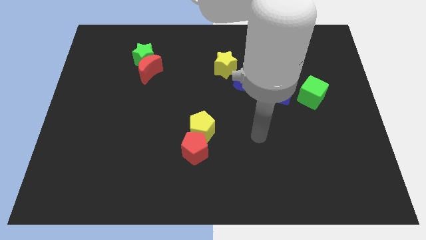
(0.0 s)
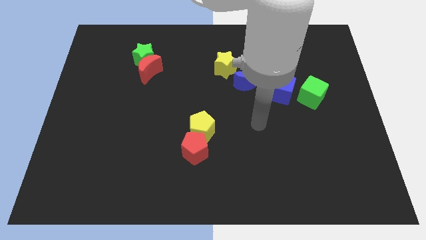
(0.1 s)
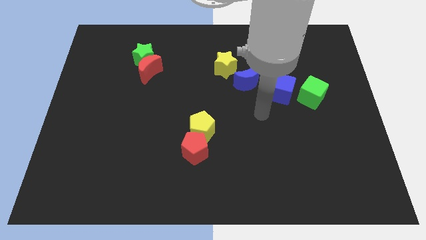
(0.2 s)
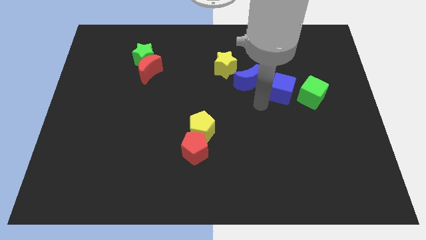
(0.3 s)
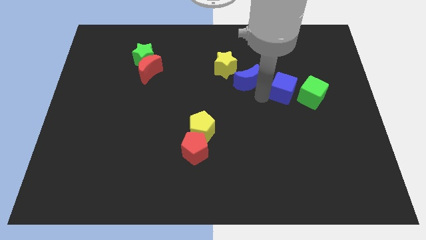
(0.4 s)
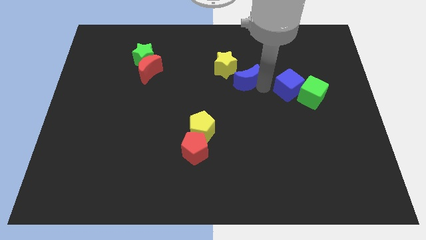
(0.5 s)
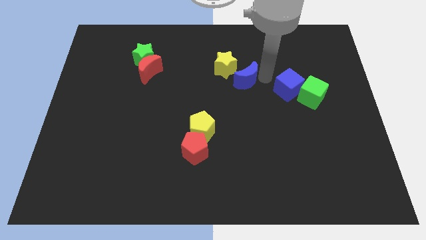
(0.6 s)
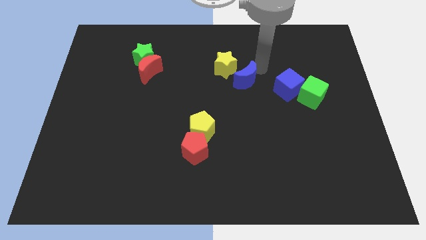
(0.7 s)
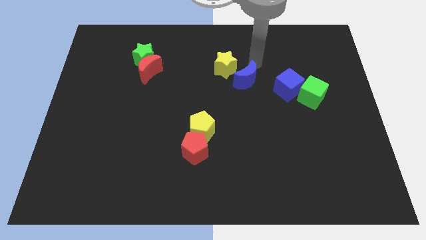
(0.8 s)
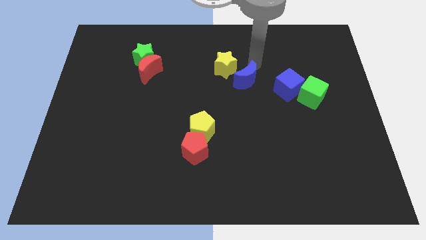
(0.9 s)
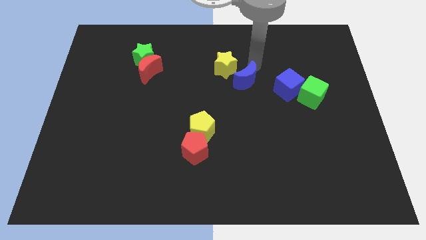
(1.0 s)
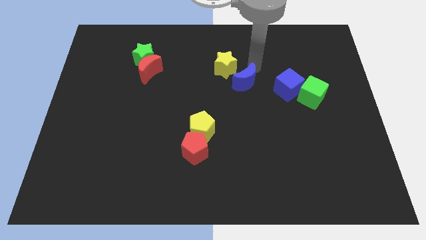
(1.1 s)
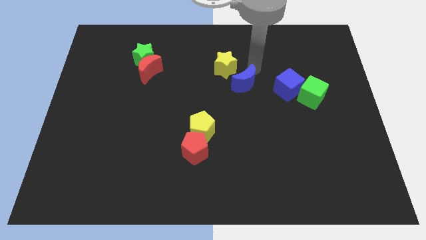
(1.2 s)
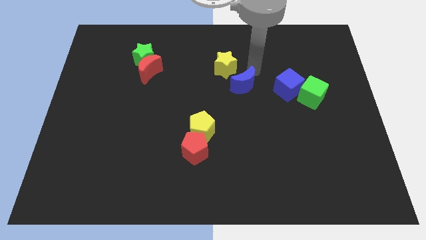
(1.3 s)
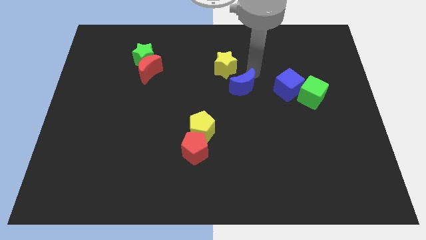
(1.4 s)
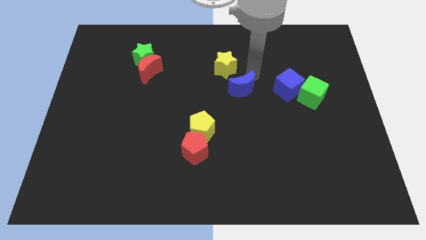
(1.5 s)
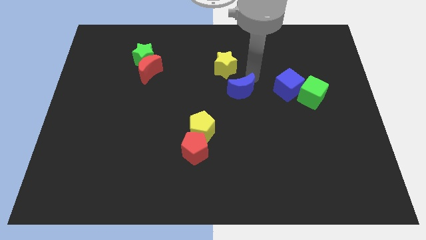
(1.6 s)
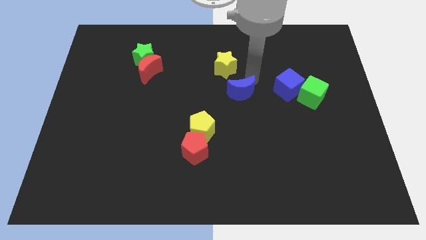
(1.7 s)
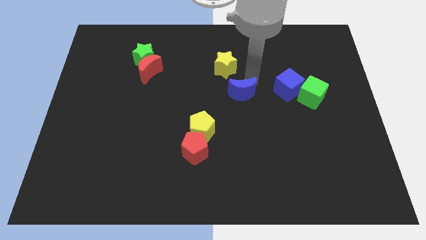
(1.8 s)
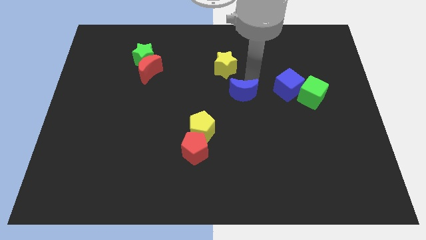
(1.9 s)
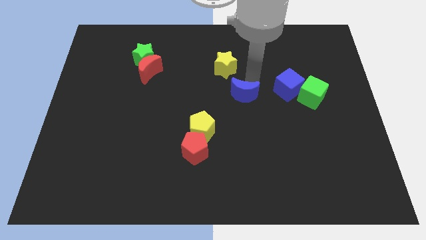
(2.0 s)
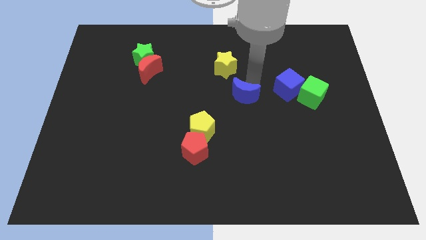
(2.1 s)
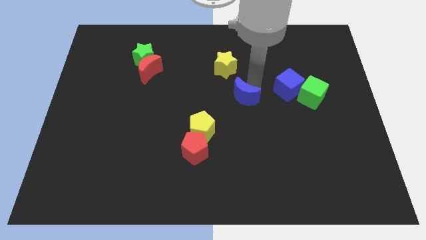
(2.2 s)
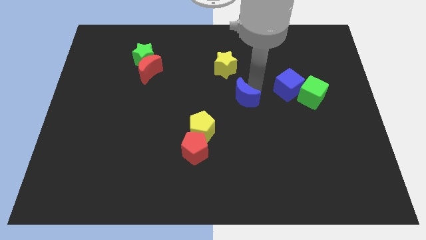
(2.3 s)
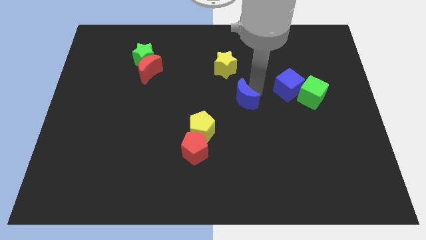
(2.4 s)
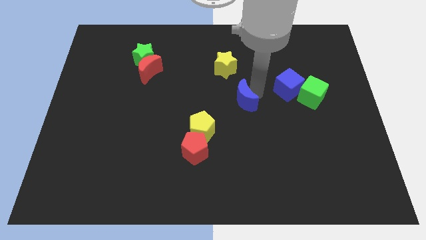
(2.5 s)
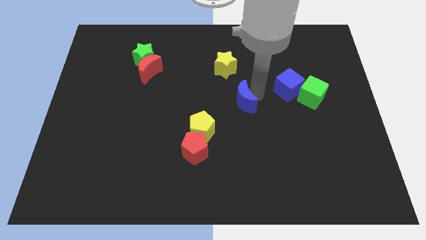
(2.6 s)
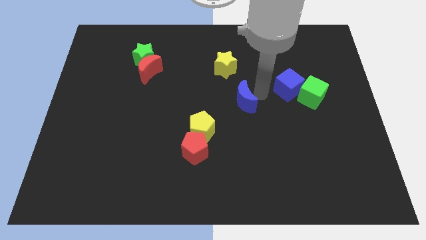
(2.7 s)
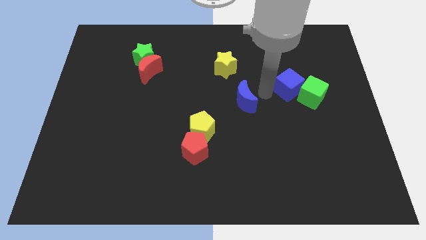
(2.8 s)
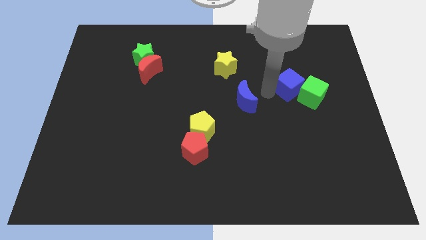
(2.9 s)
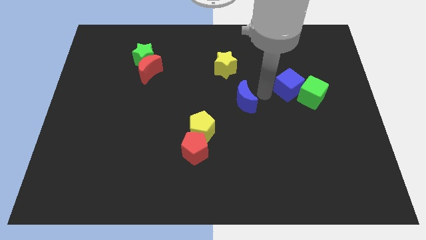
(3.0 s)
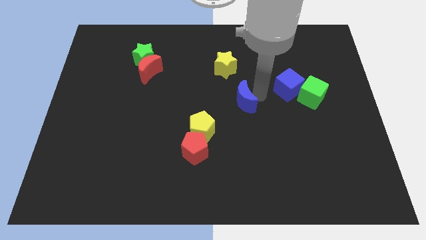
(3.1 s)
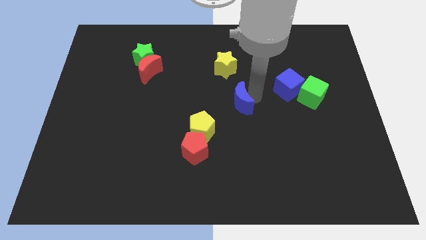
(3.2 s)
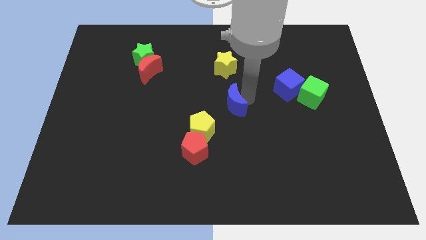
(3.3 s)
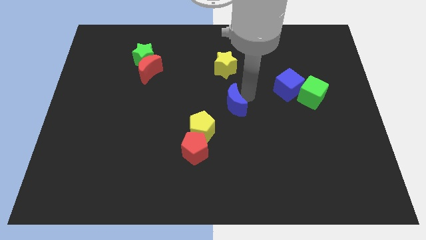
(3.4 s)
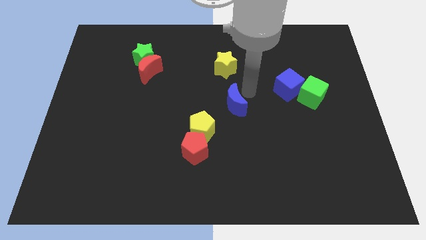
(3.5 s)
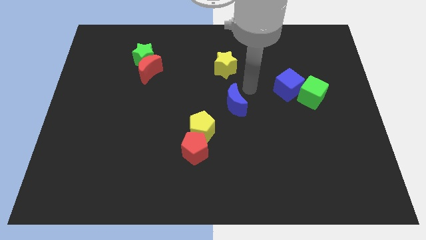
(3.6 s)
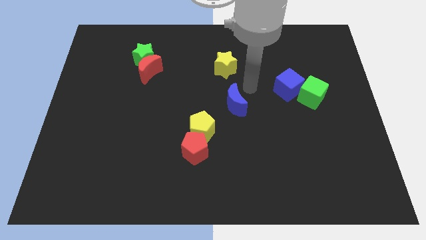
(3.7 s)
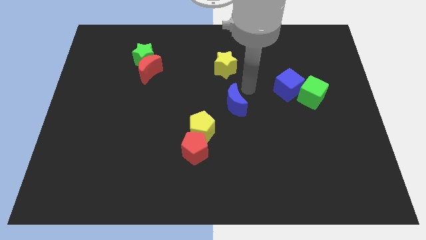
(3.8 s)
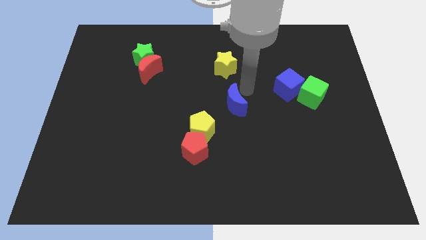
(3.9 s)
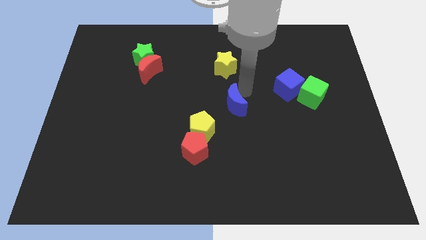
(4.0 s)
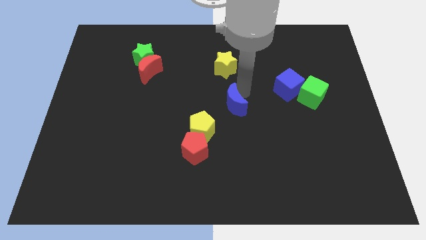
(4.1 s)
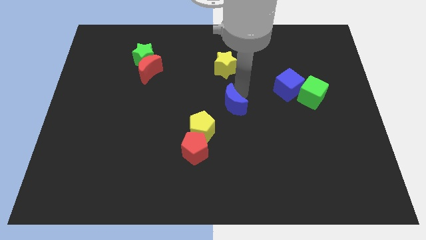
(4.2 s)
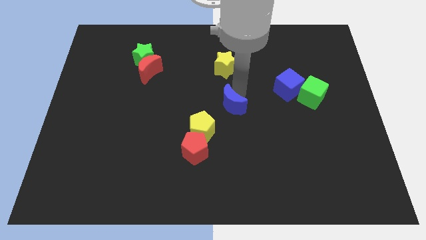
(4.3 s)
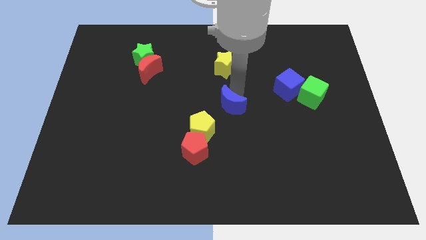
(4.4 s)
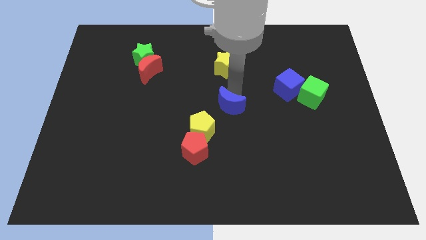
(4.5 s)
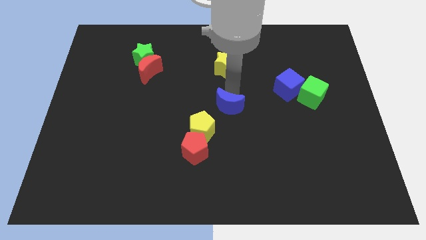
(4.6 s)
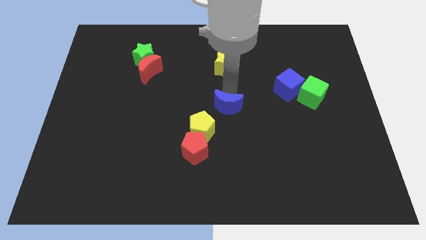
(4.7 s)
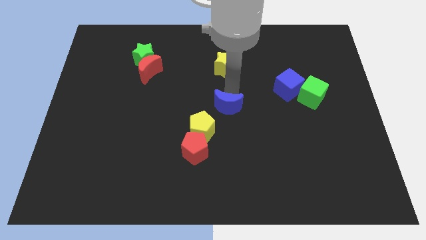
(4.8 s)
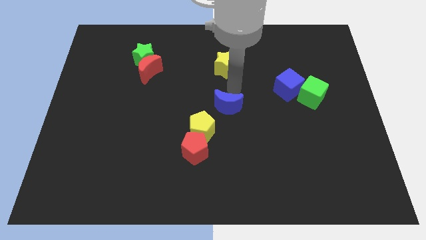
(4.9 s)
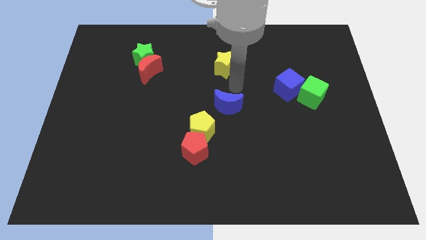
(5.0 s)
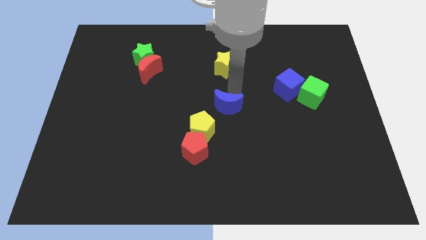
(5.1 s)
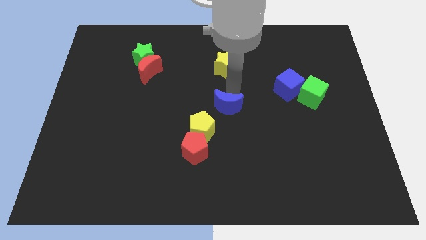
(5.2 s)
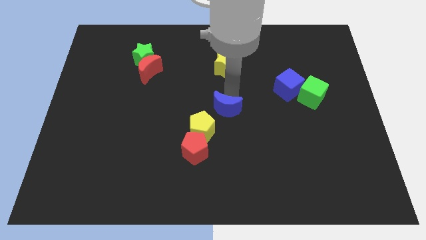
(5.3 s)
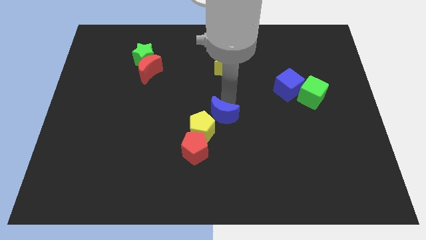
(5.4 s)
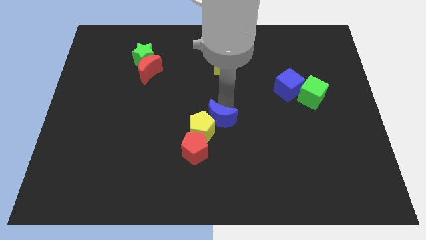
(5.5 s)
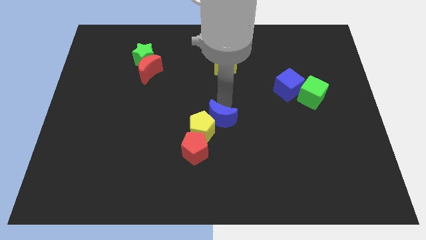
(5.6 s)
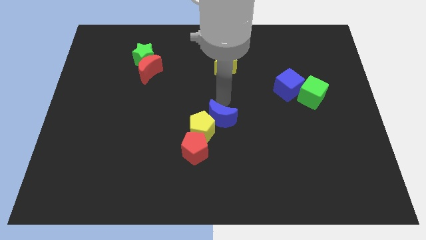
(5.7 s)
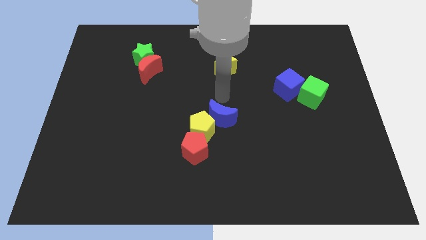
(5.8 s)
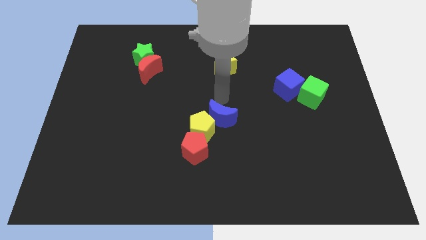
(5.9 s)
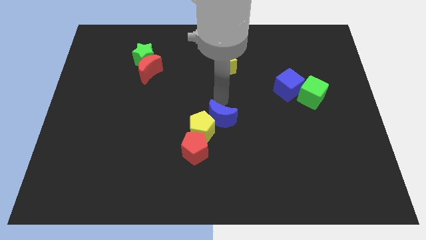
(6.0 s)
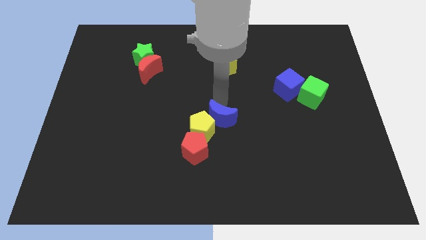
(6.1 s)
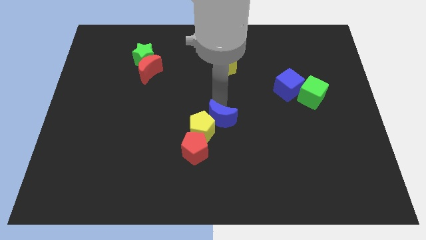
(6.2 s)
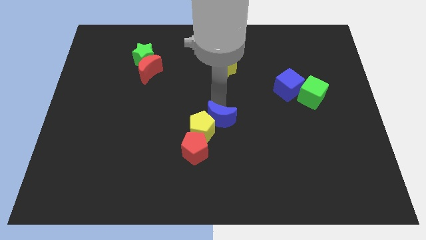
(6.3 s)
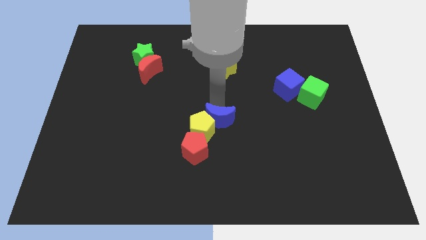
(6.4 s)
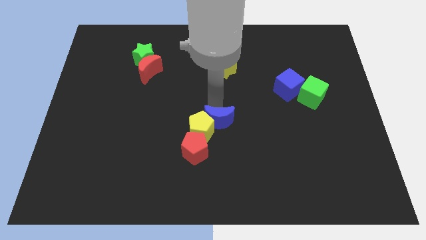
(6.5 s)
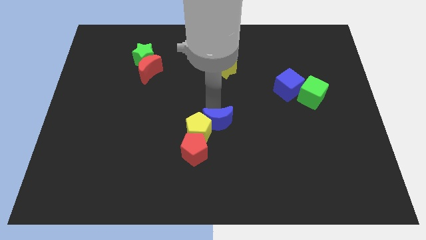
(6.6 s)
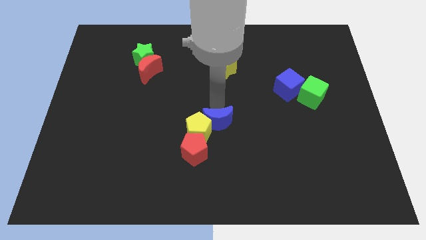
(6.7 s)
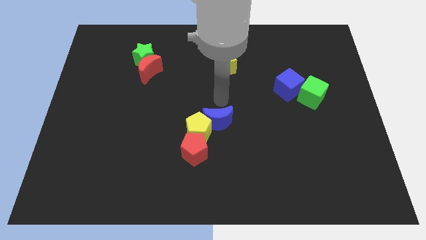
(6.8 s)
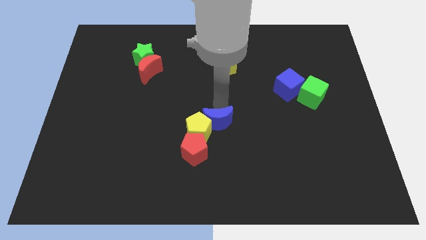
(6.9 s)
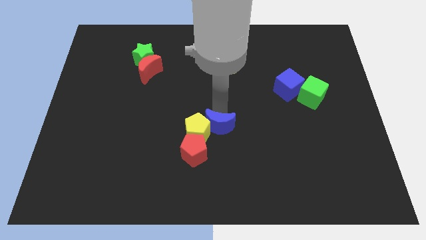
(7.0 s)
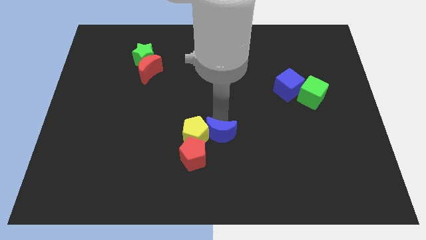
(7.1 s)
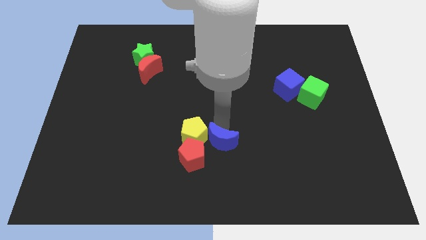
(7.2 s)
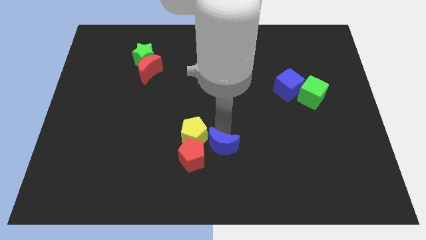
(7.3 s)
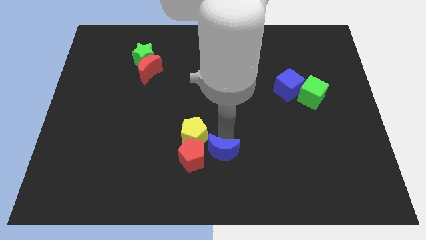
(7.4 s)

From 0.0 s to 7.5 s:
slide the blue moon to the red pentagon
